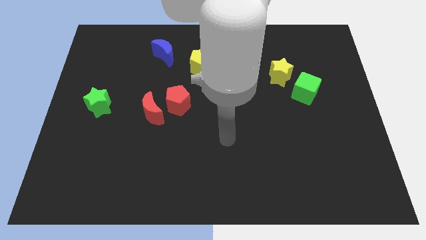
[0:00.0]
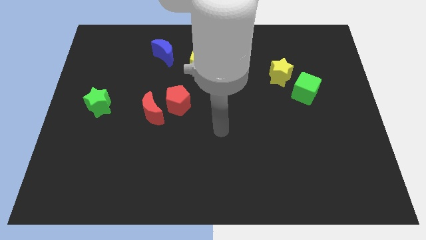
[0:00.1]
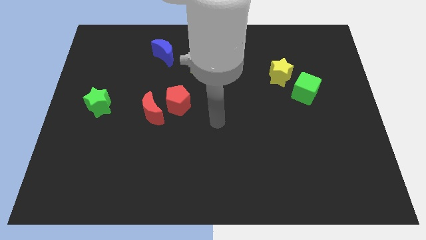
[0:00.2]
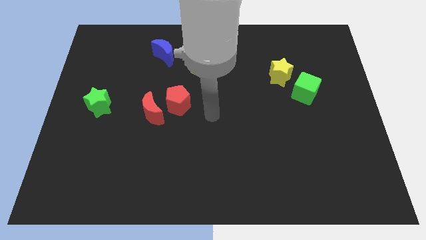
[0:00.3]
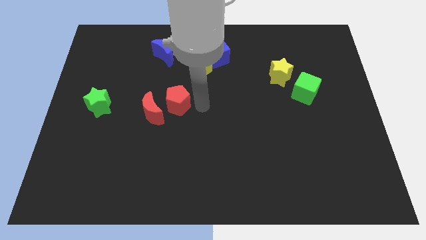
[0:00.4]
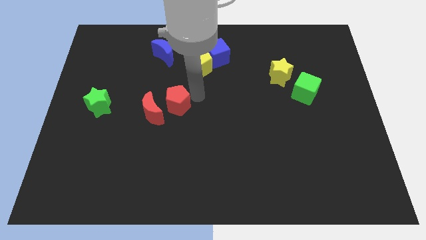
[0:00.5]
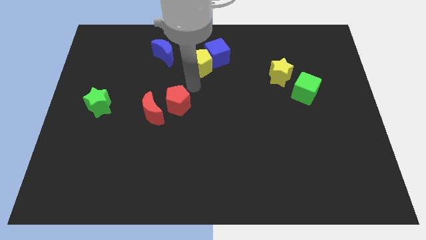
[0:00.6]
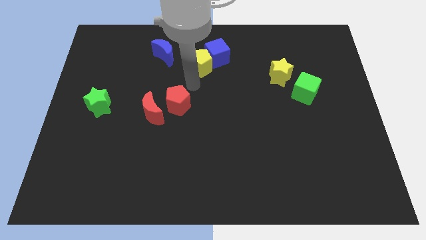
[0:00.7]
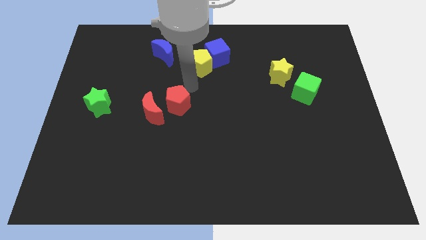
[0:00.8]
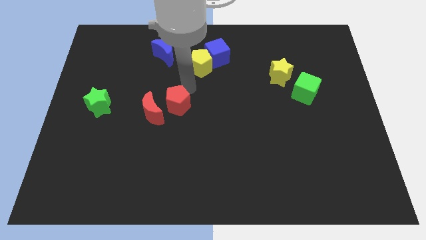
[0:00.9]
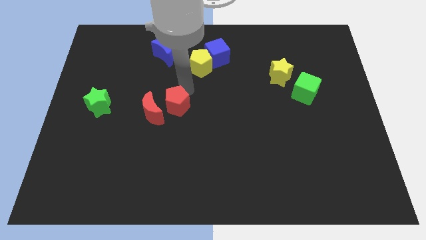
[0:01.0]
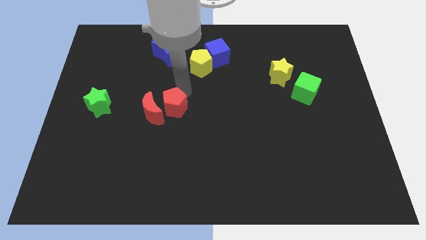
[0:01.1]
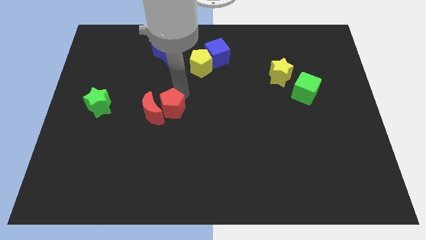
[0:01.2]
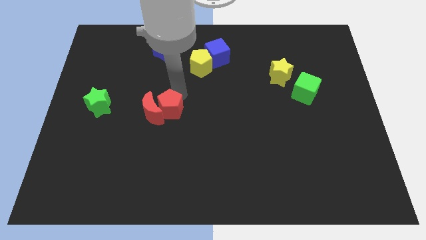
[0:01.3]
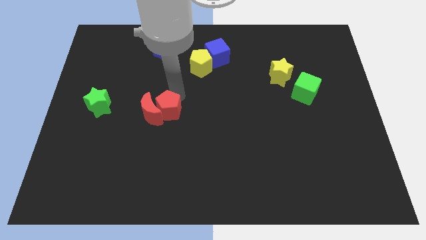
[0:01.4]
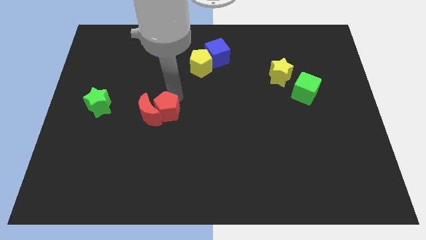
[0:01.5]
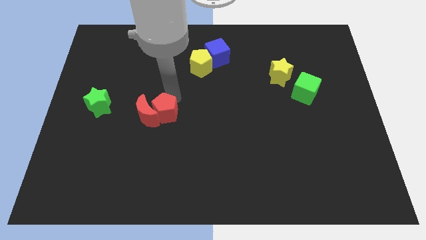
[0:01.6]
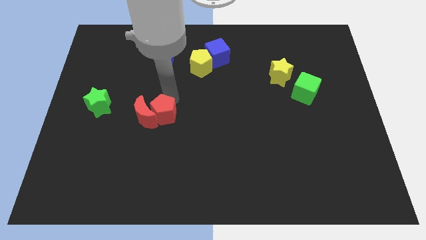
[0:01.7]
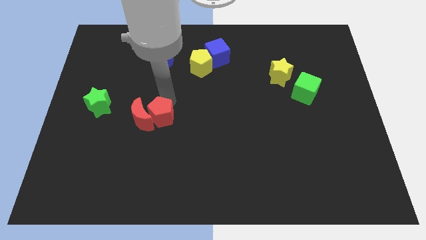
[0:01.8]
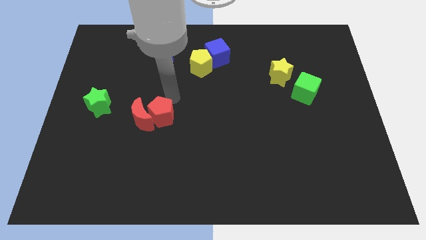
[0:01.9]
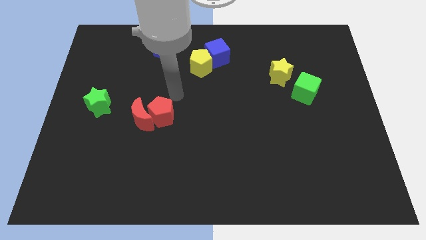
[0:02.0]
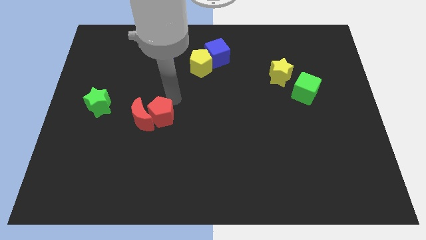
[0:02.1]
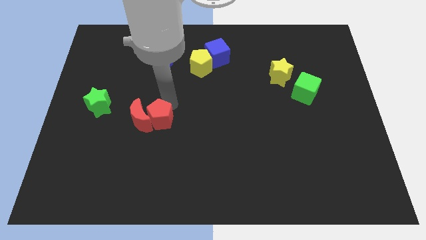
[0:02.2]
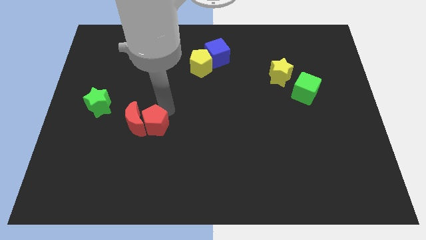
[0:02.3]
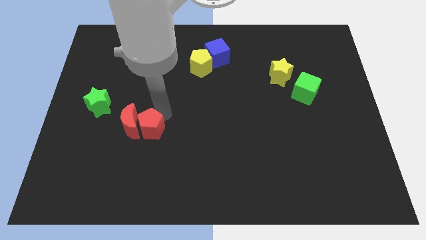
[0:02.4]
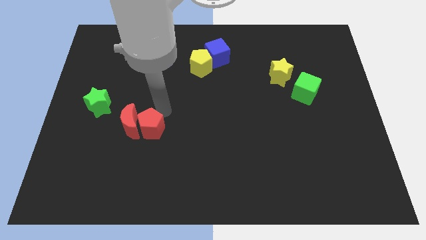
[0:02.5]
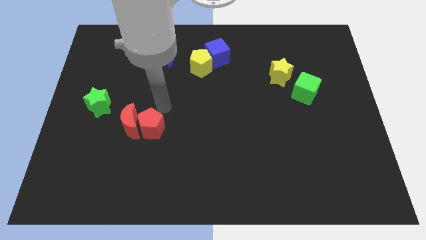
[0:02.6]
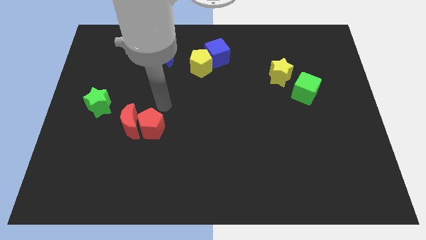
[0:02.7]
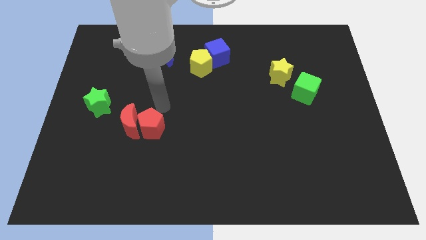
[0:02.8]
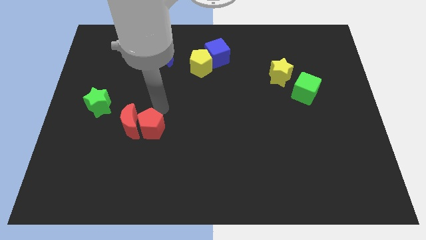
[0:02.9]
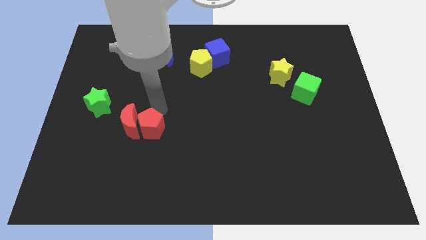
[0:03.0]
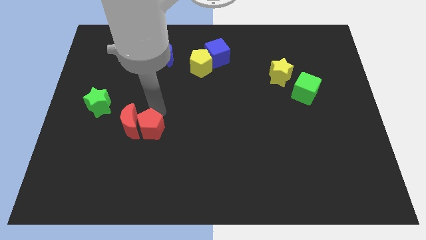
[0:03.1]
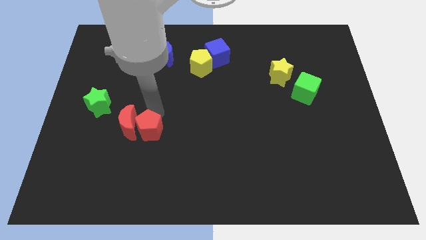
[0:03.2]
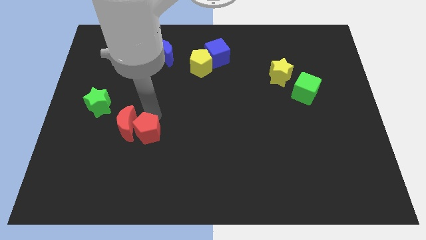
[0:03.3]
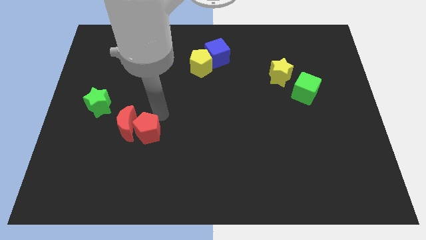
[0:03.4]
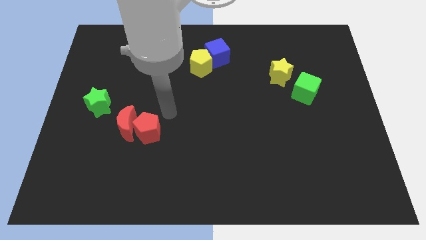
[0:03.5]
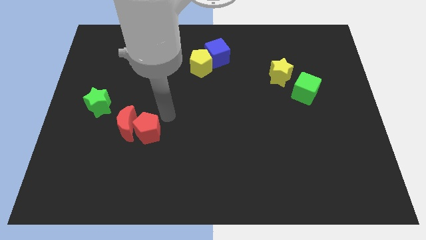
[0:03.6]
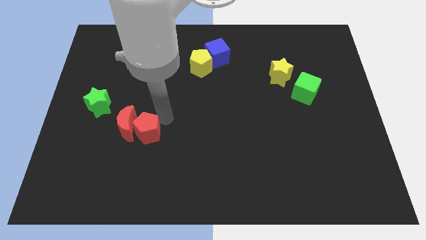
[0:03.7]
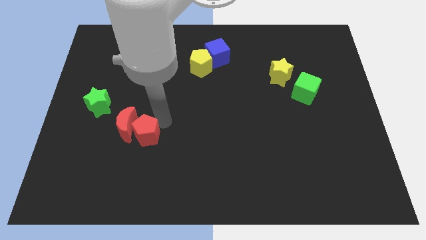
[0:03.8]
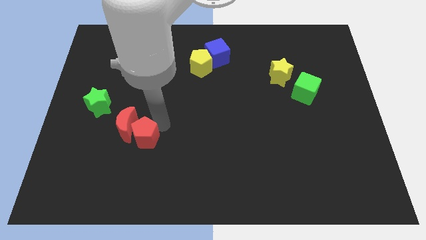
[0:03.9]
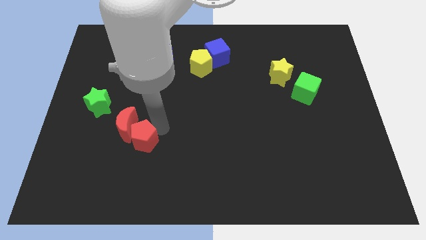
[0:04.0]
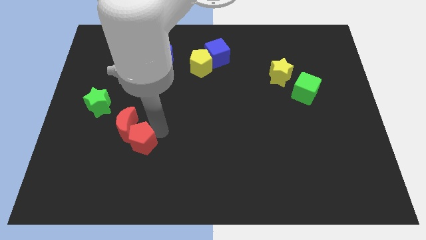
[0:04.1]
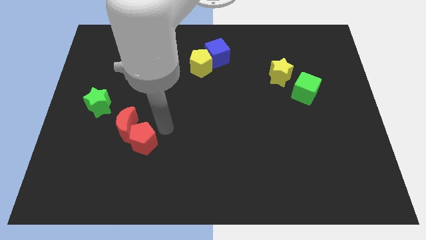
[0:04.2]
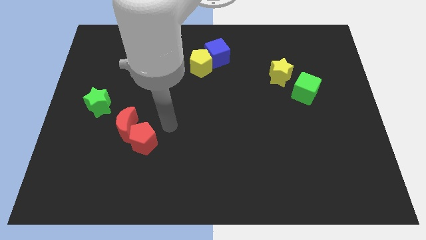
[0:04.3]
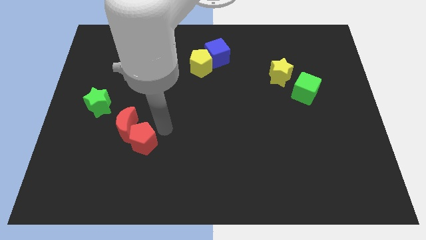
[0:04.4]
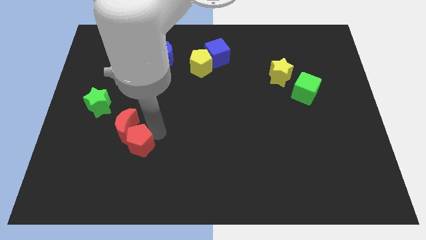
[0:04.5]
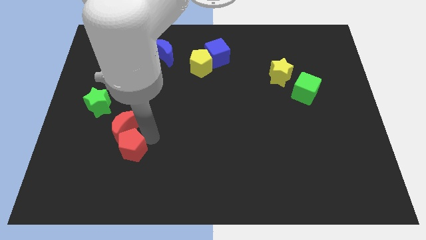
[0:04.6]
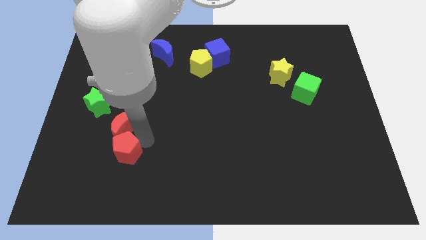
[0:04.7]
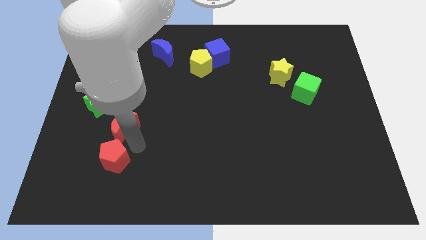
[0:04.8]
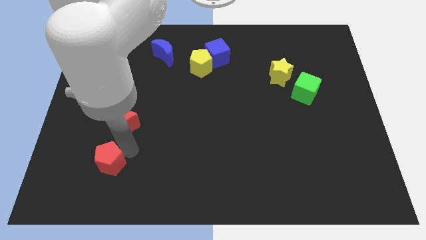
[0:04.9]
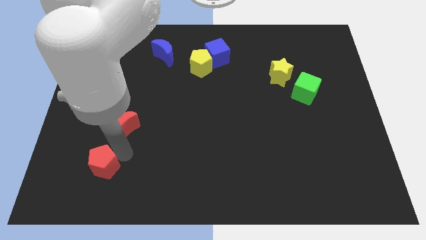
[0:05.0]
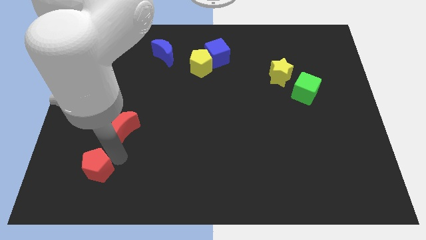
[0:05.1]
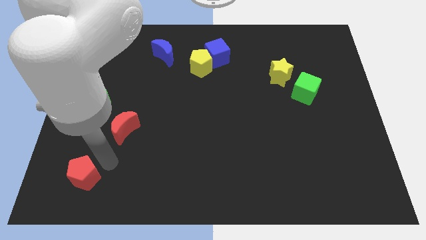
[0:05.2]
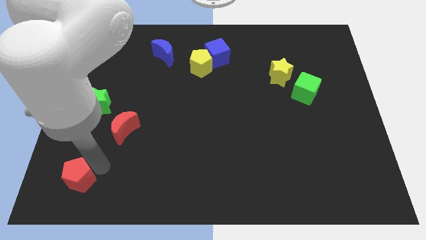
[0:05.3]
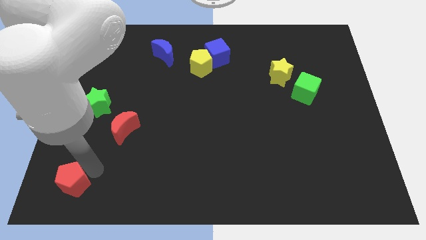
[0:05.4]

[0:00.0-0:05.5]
push the red pentagon to the bottom left
